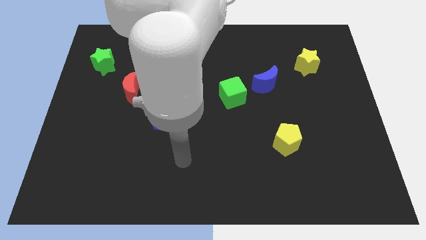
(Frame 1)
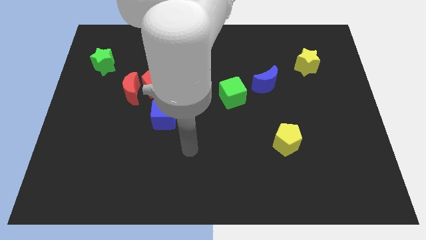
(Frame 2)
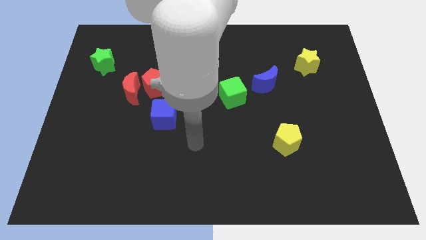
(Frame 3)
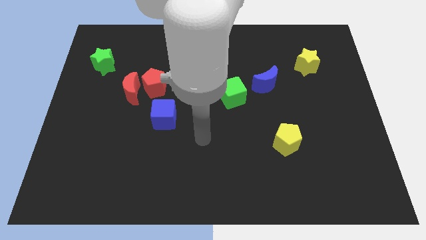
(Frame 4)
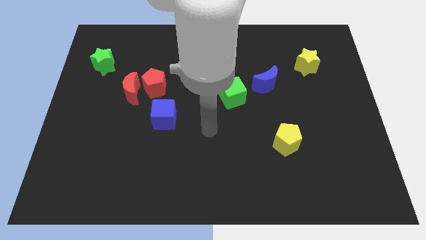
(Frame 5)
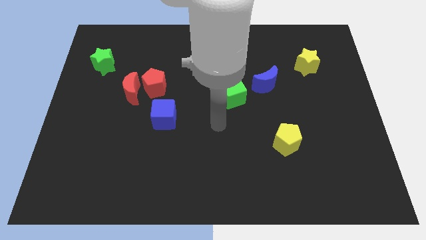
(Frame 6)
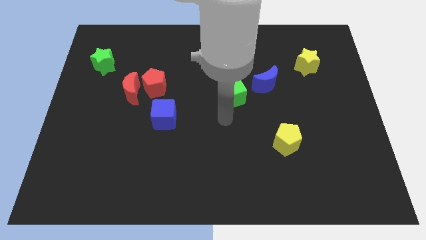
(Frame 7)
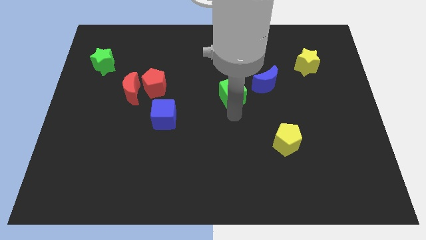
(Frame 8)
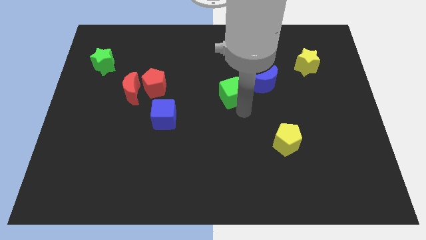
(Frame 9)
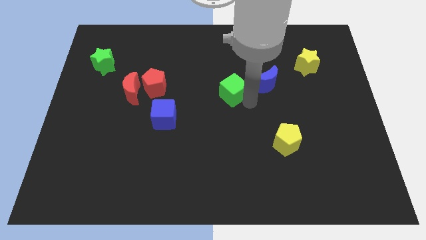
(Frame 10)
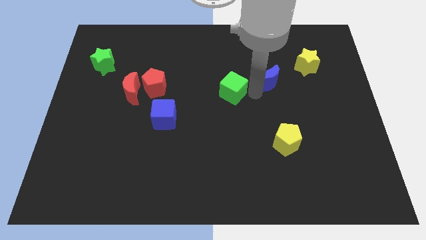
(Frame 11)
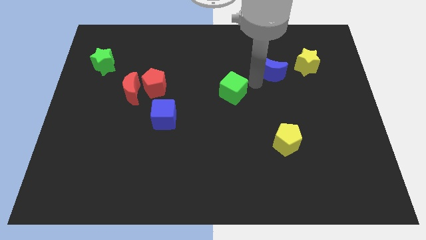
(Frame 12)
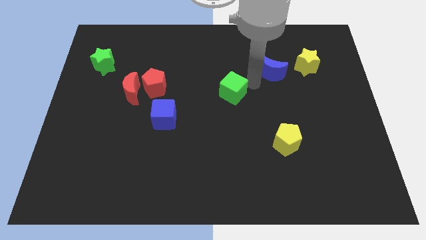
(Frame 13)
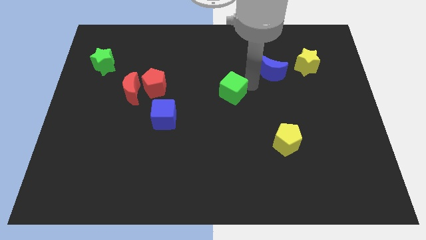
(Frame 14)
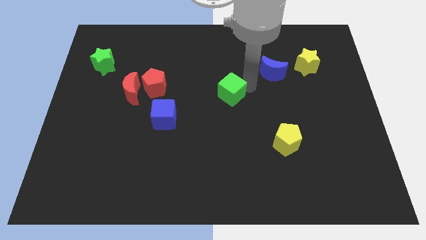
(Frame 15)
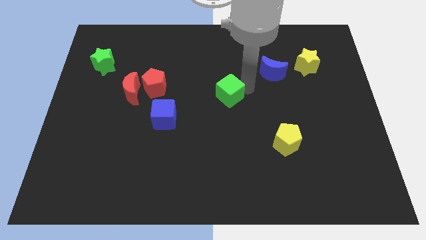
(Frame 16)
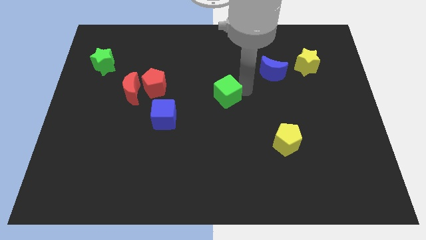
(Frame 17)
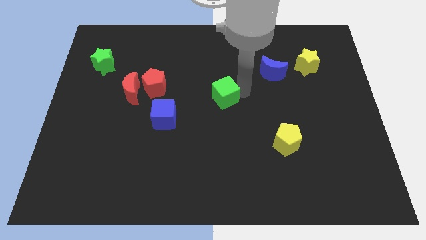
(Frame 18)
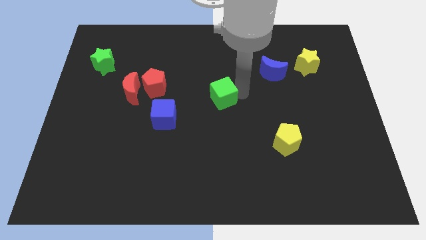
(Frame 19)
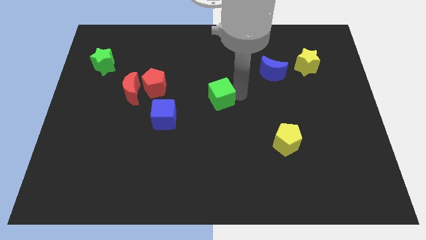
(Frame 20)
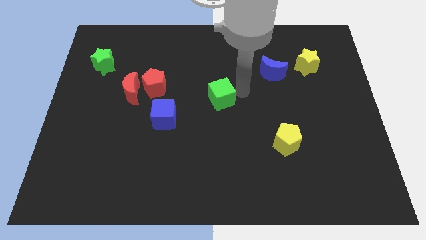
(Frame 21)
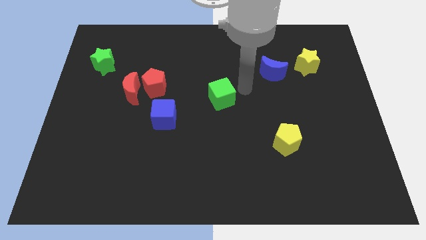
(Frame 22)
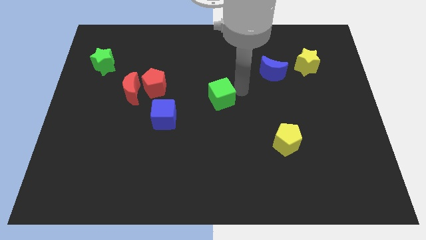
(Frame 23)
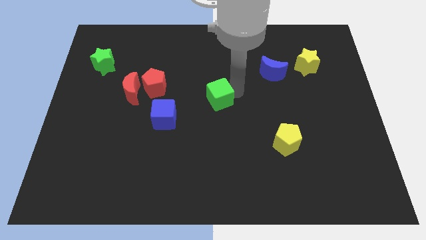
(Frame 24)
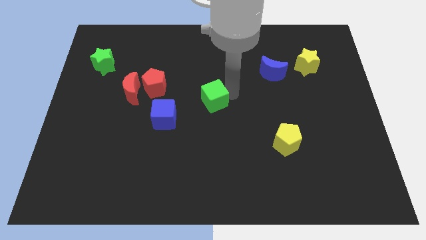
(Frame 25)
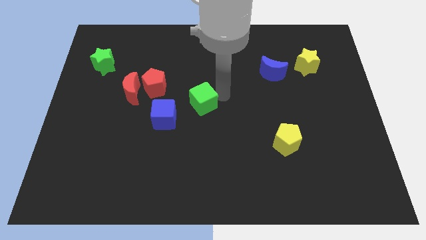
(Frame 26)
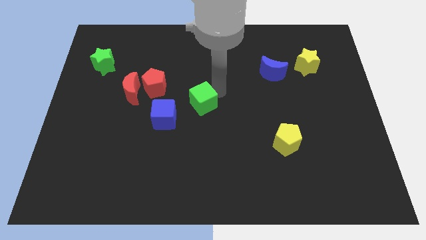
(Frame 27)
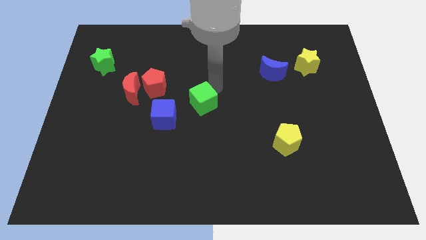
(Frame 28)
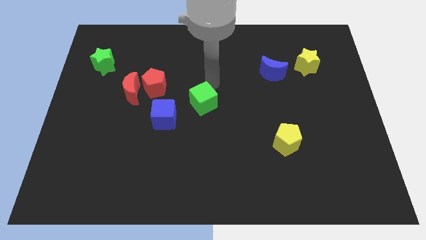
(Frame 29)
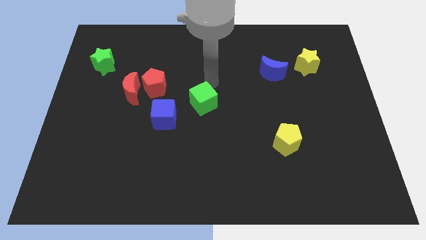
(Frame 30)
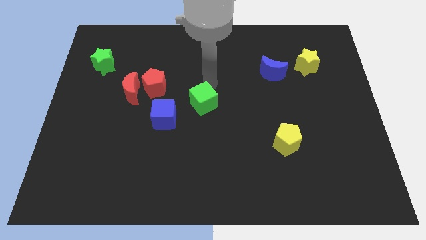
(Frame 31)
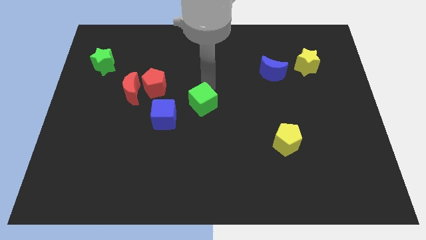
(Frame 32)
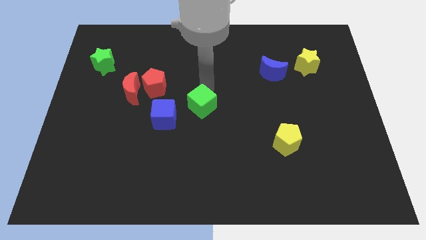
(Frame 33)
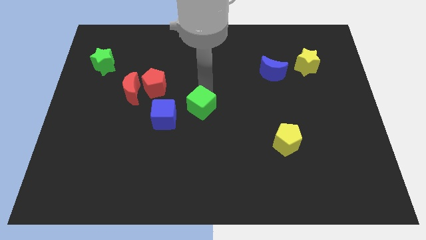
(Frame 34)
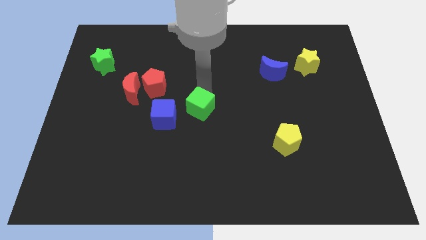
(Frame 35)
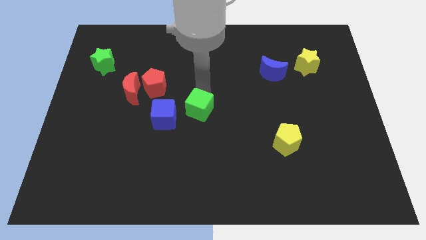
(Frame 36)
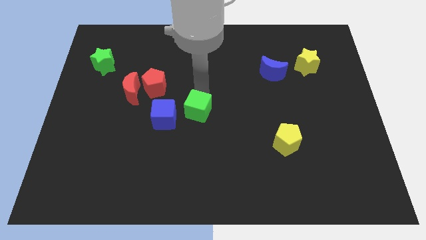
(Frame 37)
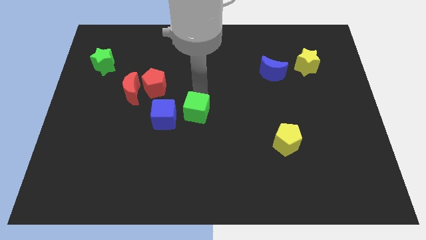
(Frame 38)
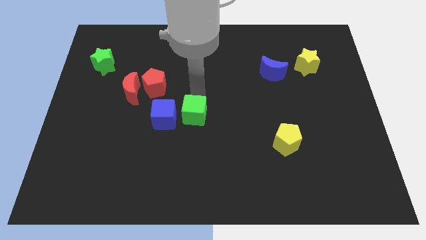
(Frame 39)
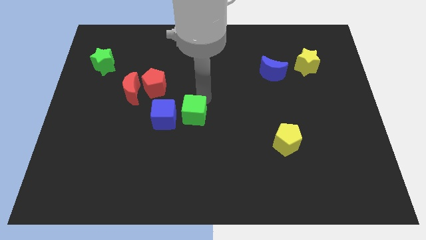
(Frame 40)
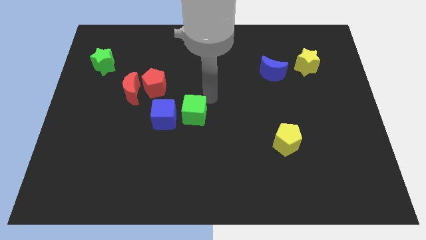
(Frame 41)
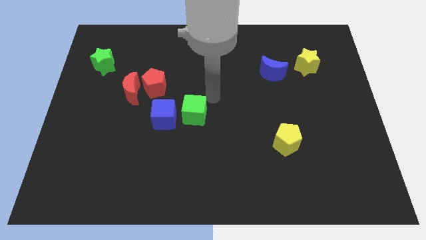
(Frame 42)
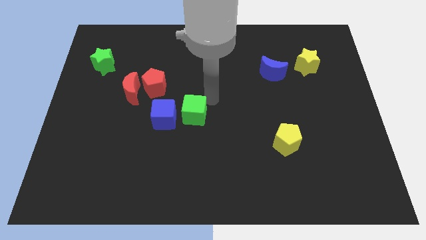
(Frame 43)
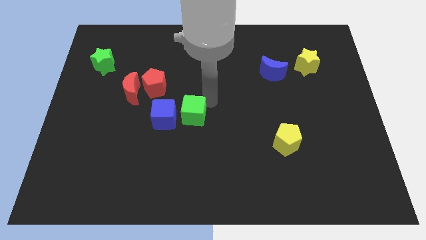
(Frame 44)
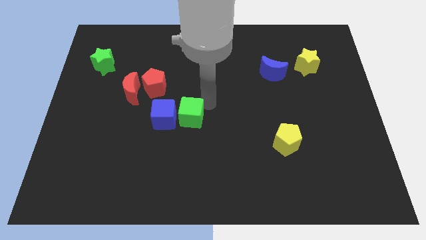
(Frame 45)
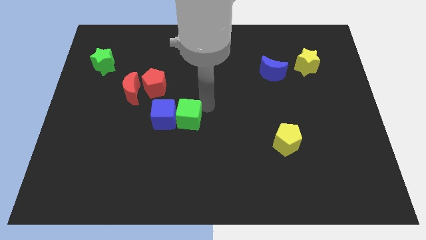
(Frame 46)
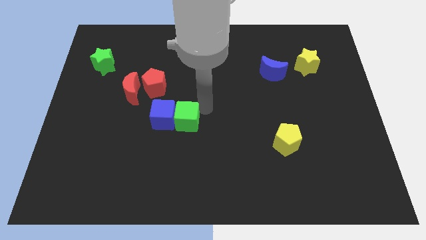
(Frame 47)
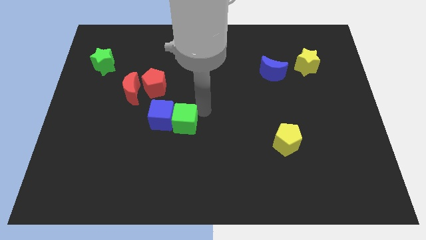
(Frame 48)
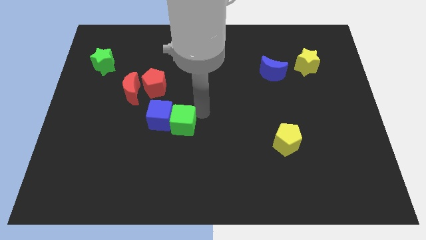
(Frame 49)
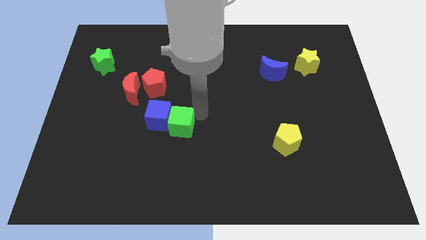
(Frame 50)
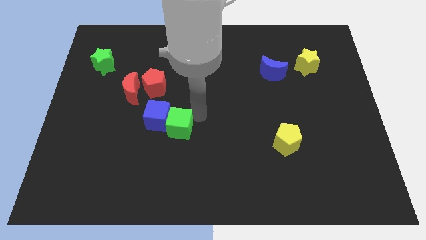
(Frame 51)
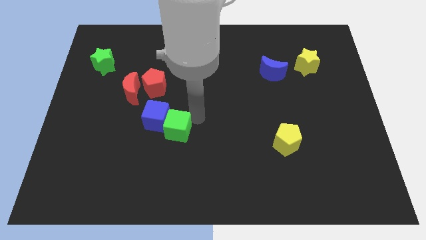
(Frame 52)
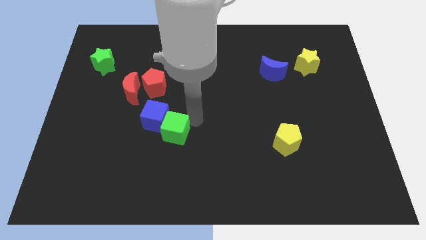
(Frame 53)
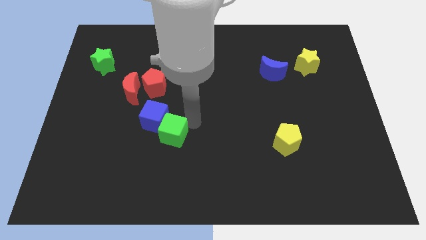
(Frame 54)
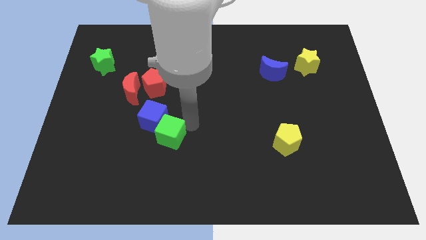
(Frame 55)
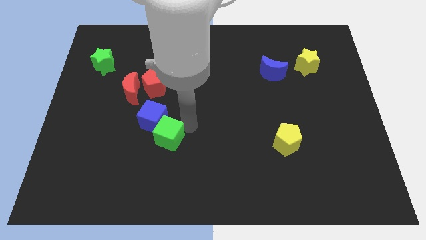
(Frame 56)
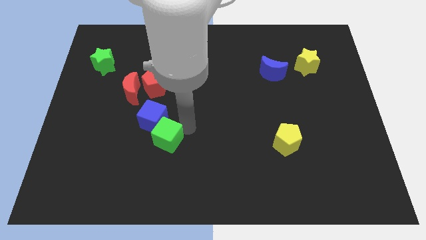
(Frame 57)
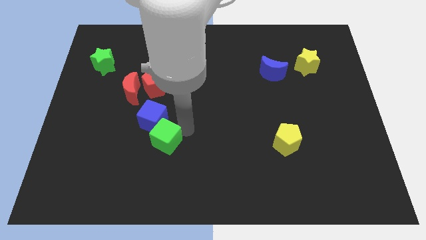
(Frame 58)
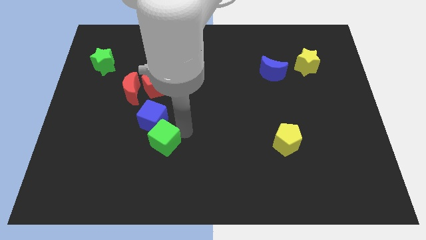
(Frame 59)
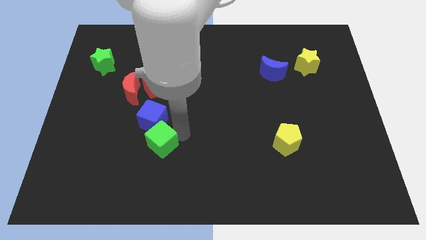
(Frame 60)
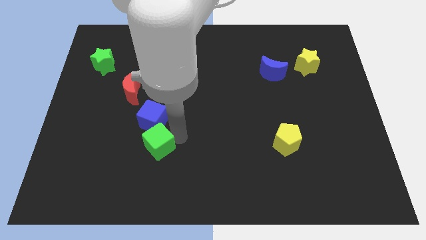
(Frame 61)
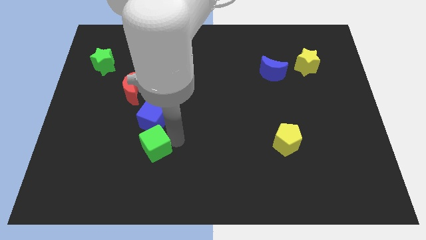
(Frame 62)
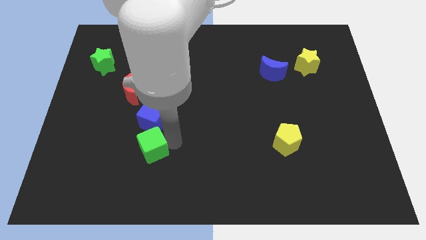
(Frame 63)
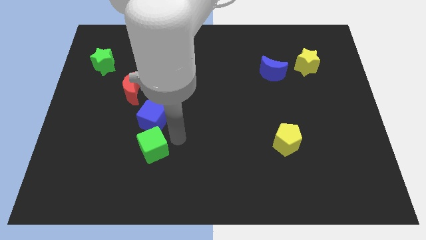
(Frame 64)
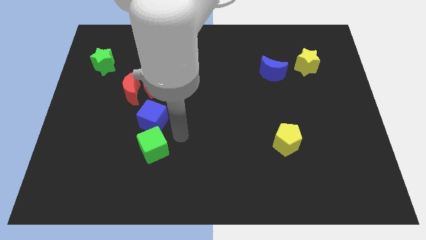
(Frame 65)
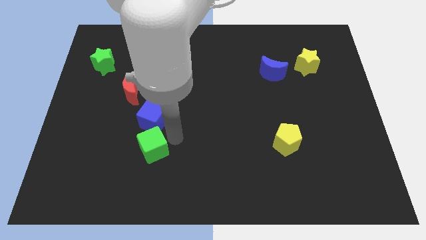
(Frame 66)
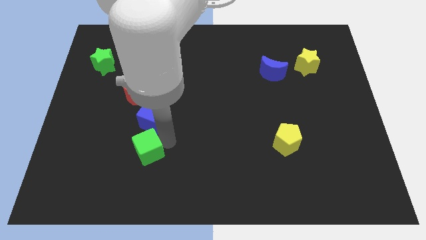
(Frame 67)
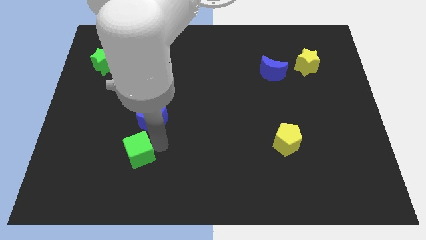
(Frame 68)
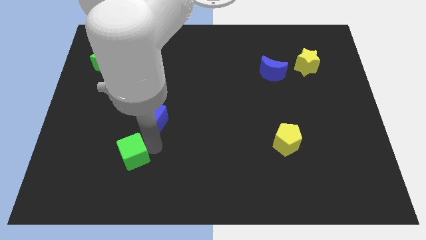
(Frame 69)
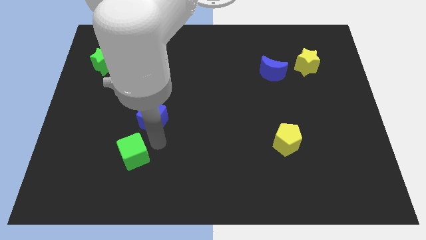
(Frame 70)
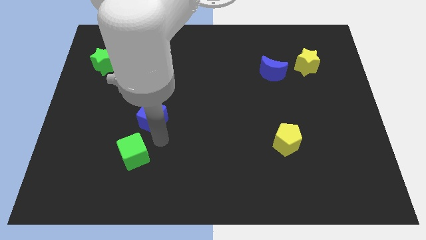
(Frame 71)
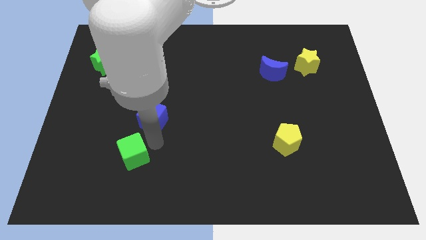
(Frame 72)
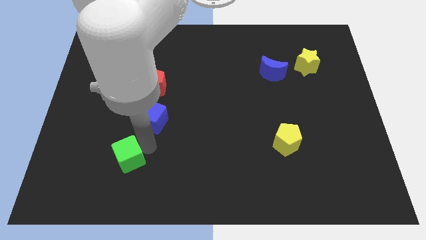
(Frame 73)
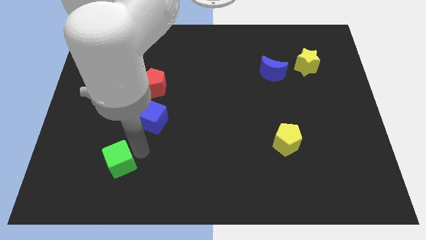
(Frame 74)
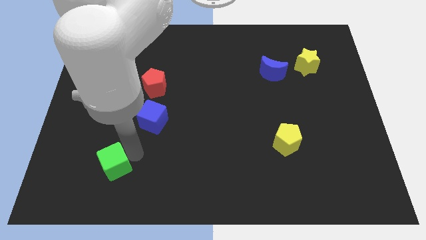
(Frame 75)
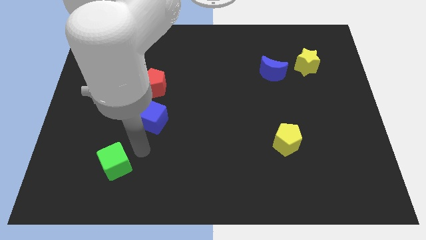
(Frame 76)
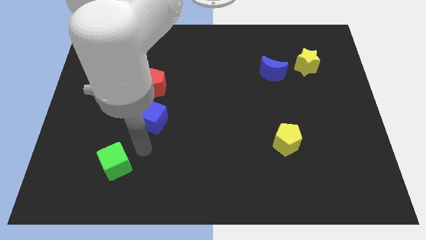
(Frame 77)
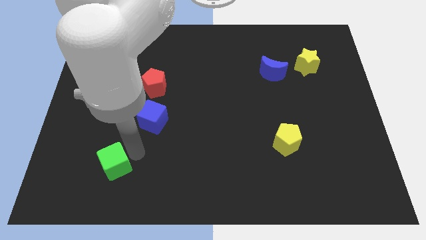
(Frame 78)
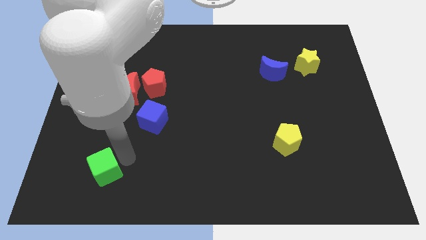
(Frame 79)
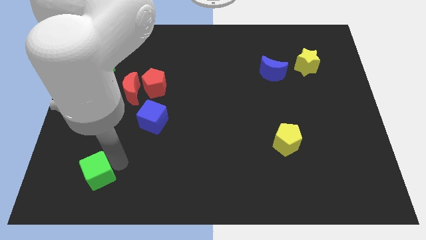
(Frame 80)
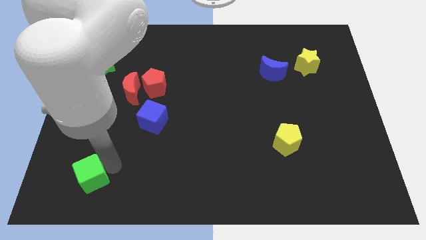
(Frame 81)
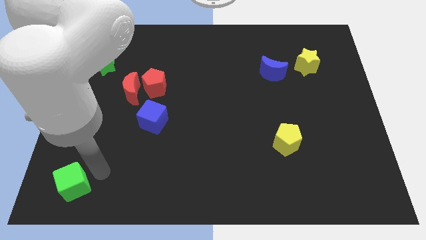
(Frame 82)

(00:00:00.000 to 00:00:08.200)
move the green cube to the bottom left
